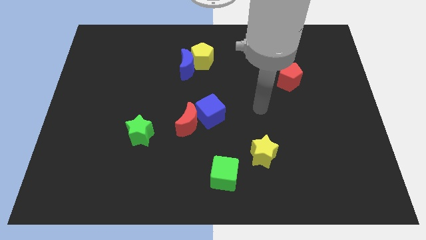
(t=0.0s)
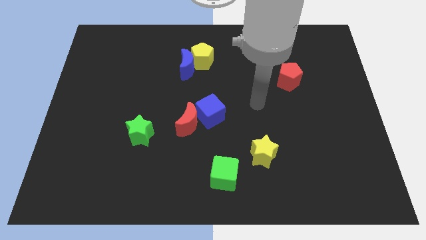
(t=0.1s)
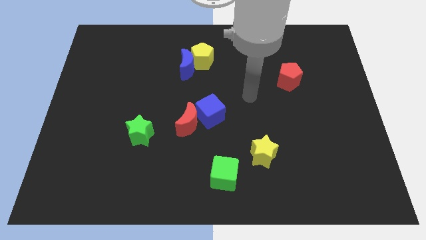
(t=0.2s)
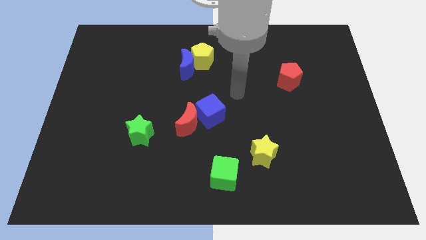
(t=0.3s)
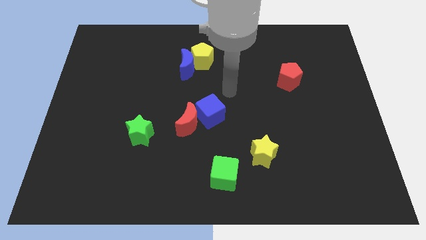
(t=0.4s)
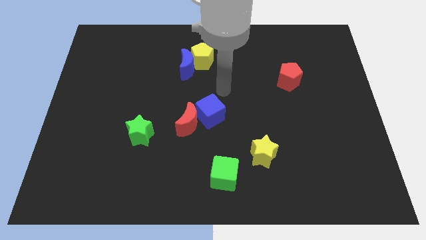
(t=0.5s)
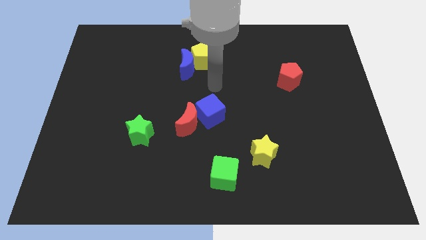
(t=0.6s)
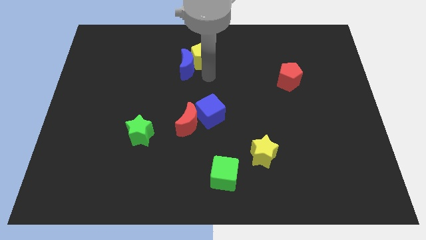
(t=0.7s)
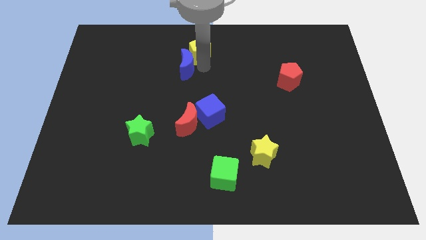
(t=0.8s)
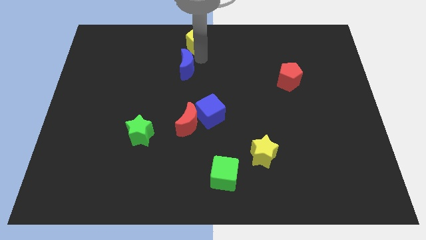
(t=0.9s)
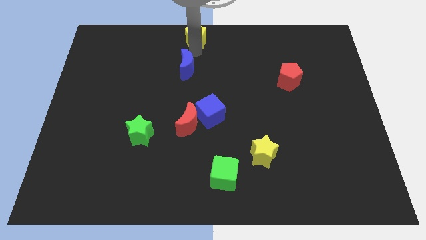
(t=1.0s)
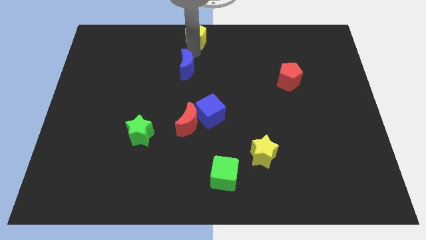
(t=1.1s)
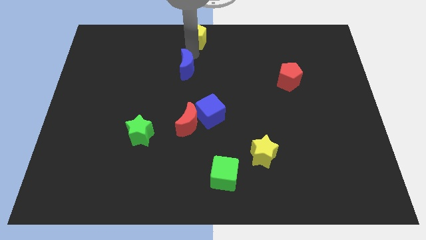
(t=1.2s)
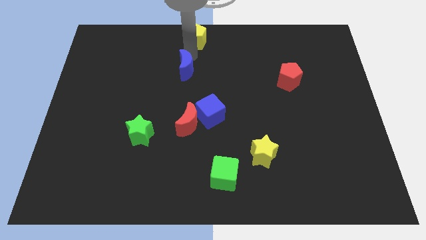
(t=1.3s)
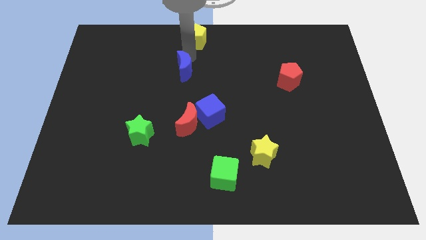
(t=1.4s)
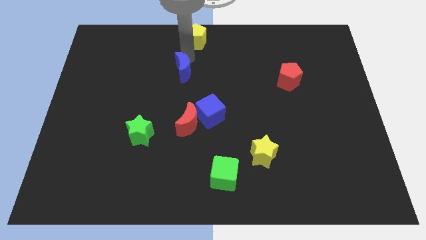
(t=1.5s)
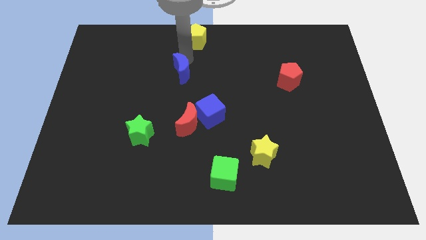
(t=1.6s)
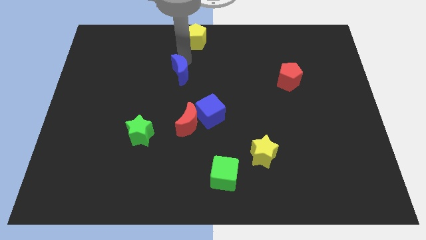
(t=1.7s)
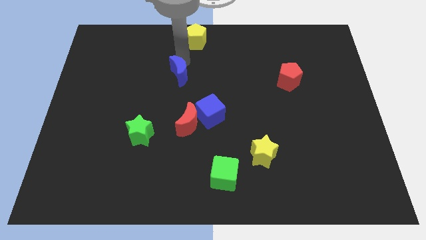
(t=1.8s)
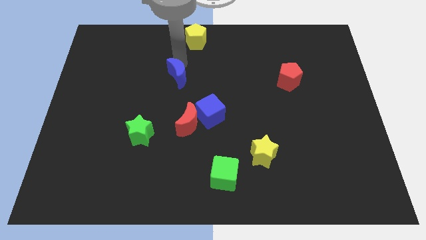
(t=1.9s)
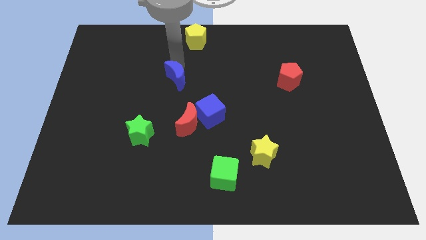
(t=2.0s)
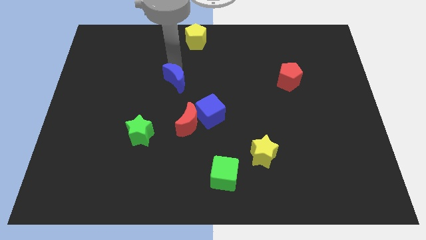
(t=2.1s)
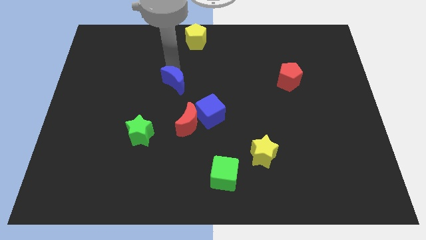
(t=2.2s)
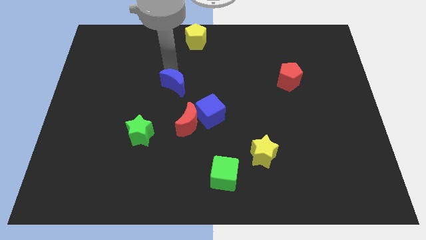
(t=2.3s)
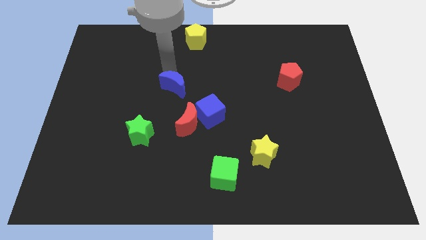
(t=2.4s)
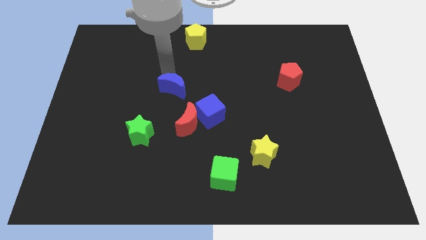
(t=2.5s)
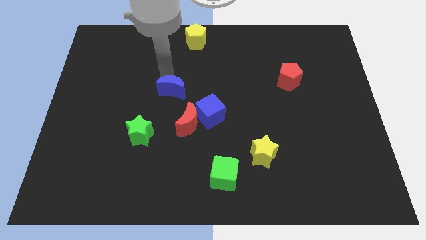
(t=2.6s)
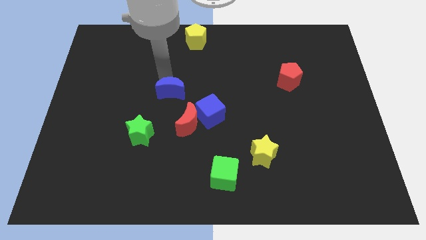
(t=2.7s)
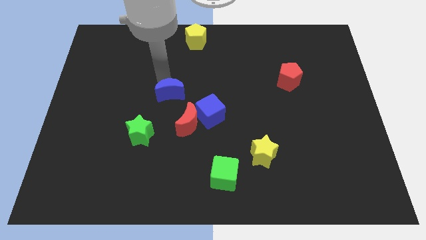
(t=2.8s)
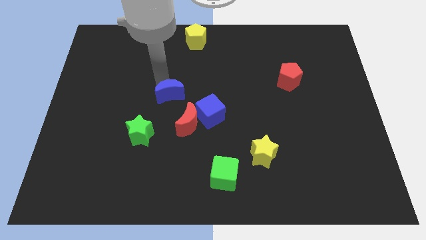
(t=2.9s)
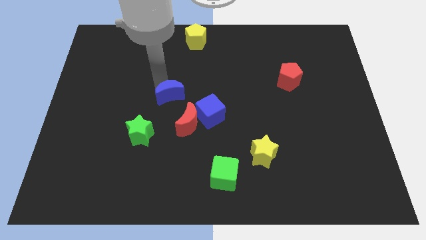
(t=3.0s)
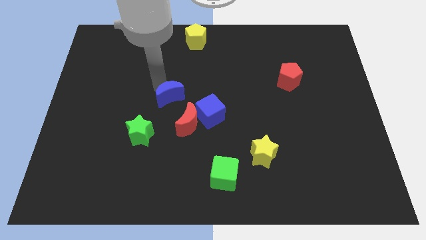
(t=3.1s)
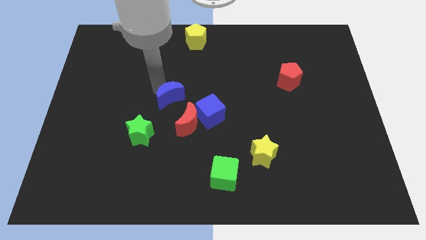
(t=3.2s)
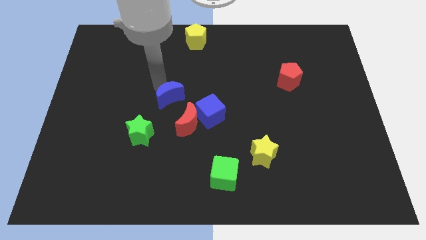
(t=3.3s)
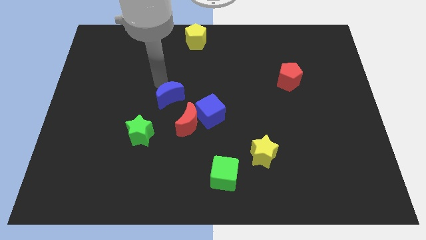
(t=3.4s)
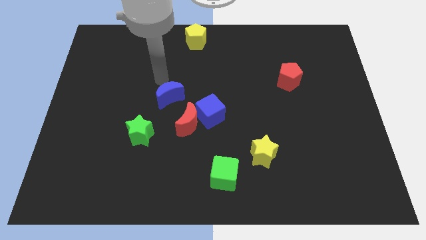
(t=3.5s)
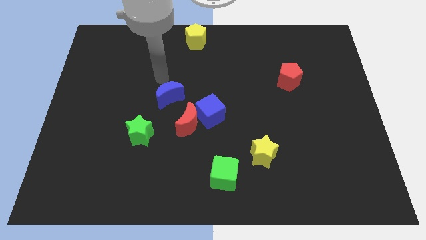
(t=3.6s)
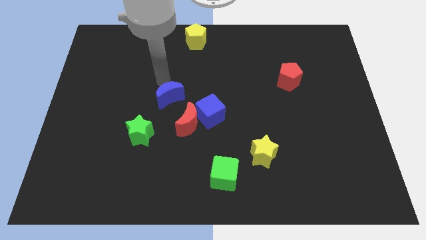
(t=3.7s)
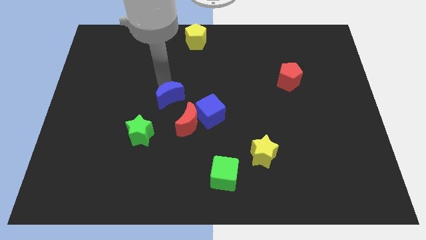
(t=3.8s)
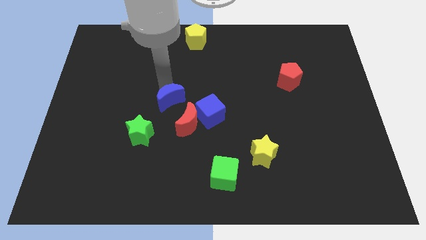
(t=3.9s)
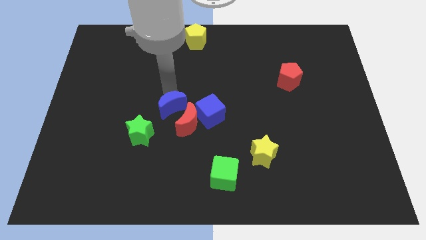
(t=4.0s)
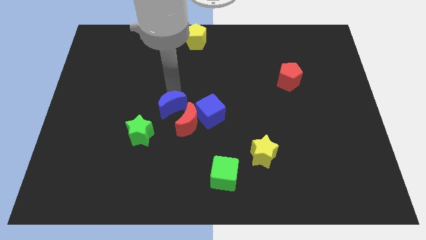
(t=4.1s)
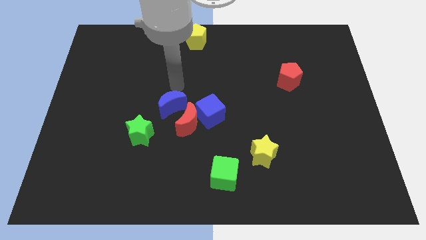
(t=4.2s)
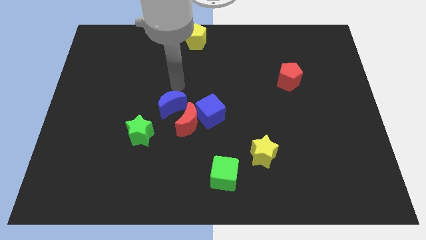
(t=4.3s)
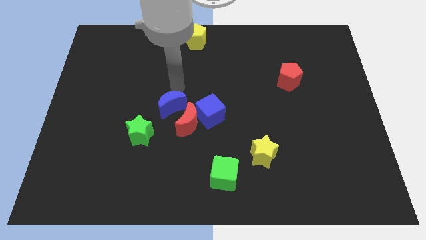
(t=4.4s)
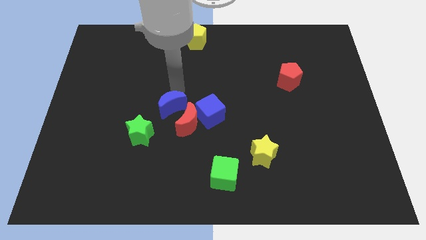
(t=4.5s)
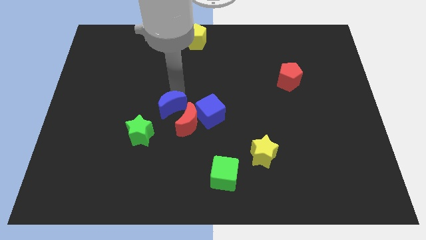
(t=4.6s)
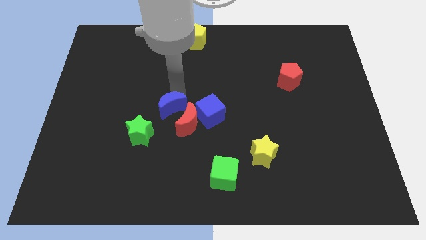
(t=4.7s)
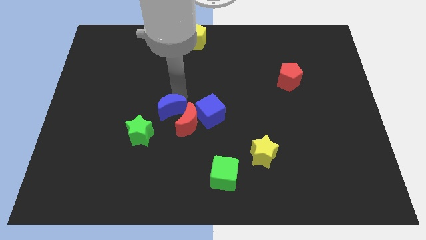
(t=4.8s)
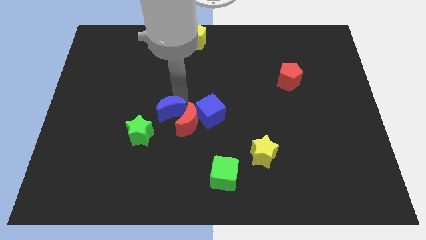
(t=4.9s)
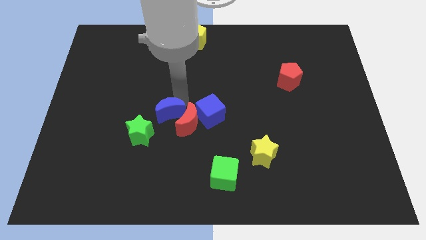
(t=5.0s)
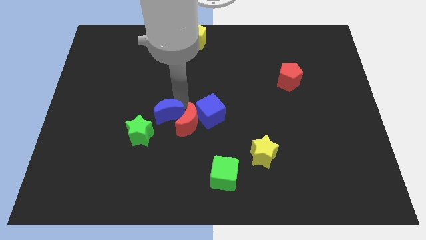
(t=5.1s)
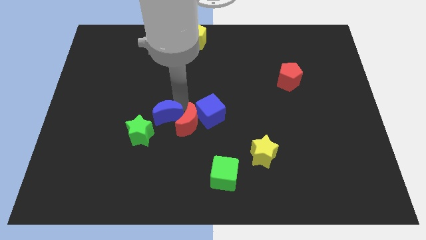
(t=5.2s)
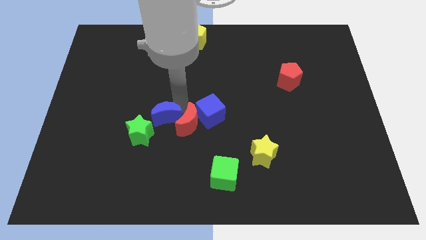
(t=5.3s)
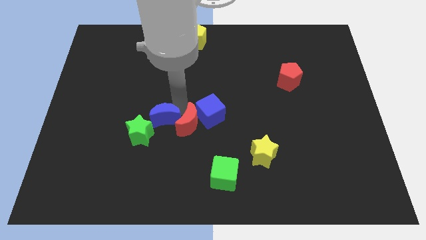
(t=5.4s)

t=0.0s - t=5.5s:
move the blue moon to the bottom left side of the red moon

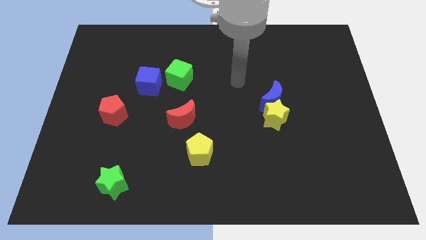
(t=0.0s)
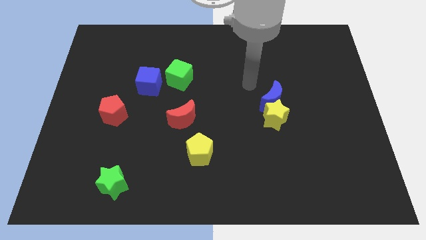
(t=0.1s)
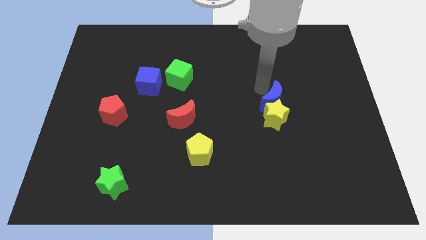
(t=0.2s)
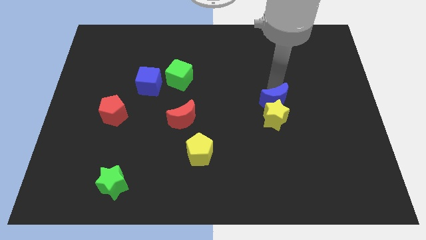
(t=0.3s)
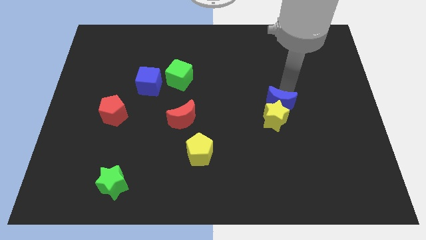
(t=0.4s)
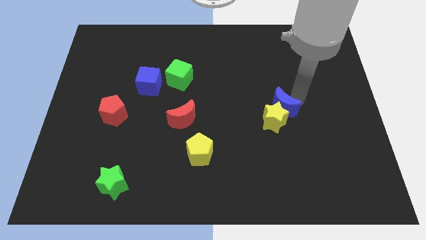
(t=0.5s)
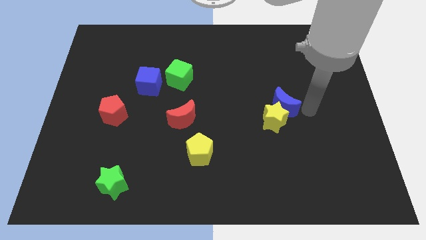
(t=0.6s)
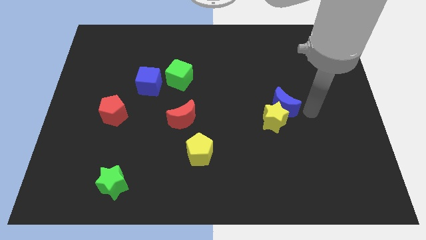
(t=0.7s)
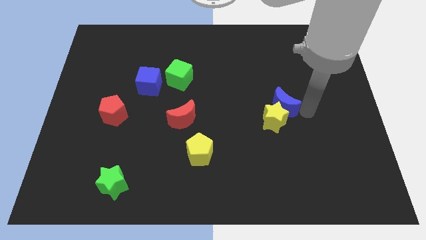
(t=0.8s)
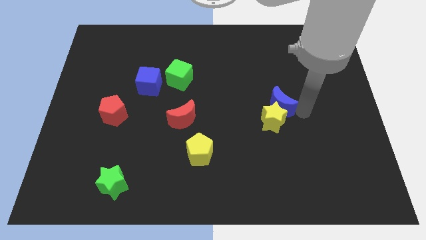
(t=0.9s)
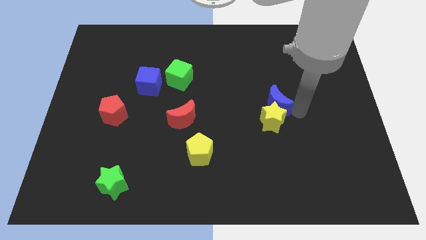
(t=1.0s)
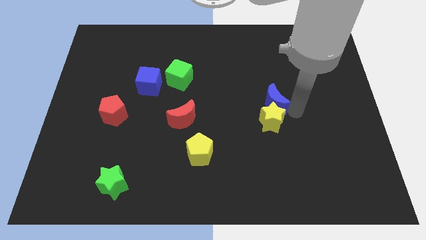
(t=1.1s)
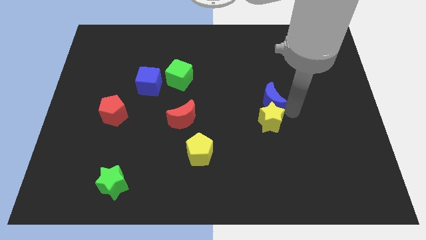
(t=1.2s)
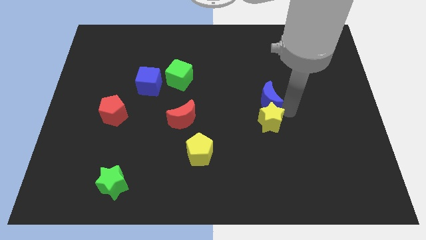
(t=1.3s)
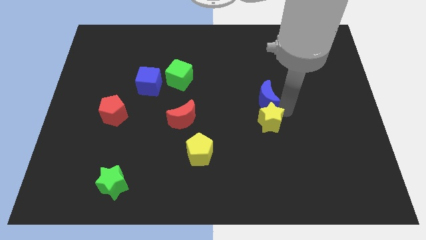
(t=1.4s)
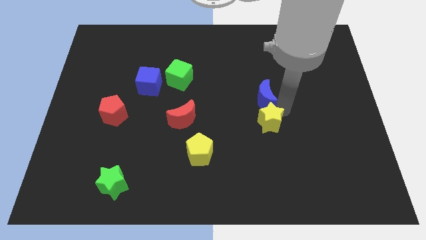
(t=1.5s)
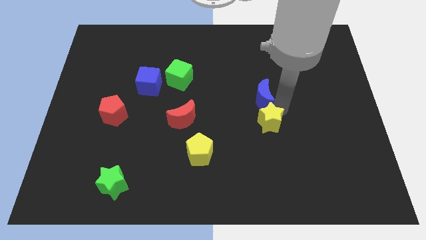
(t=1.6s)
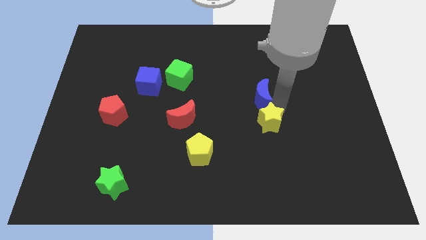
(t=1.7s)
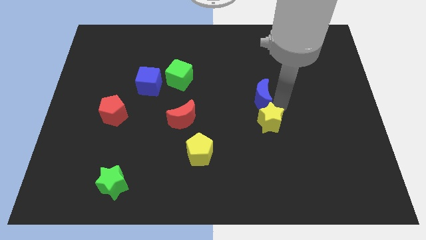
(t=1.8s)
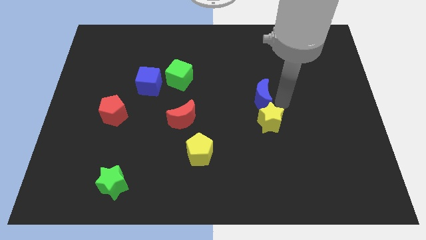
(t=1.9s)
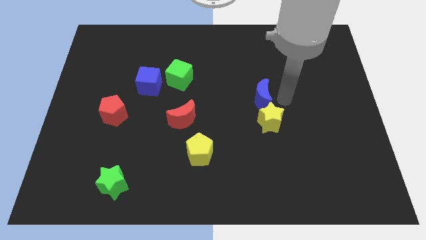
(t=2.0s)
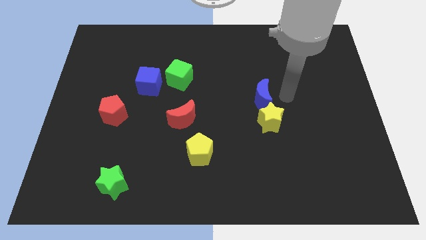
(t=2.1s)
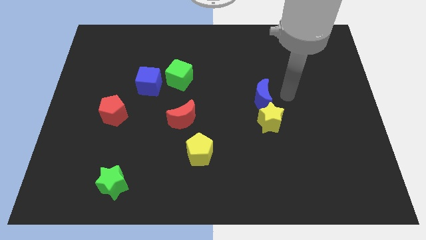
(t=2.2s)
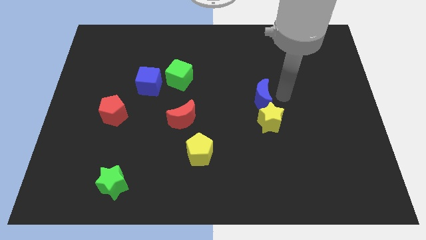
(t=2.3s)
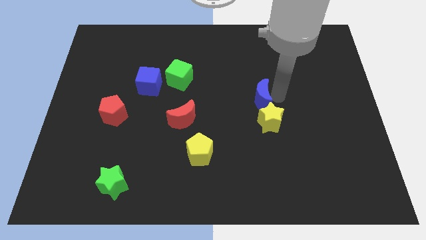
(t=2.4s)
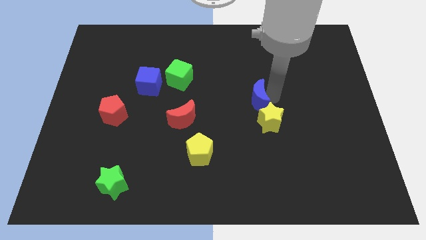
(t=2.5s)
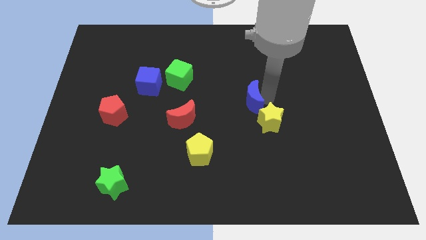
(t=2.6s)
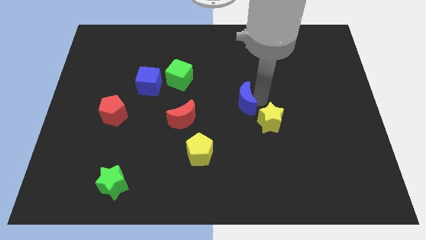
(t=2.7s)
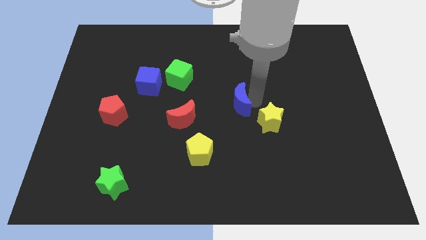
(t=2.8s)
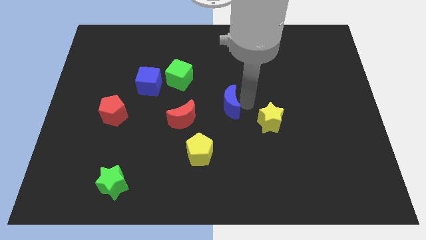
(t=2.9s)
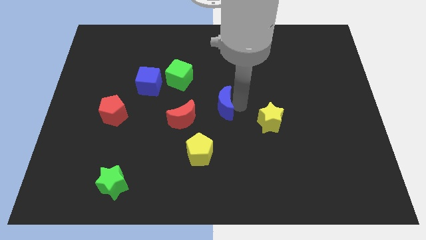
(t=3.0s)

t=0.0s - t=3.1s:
slide the blue moon to the top right side of the red moon
